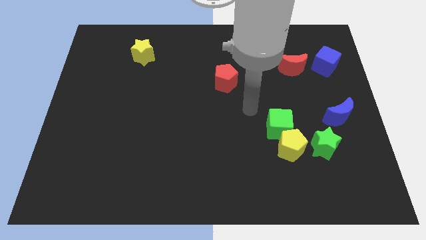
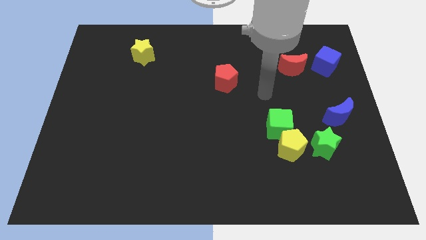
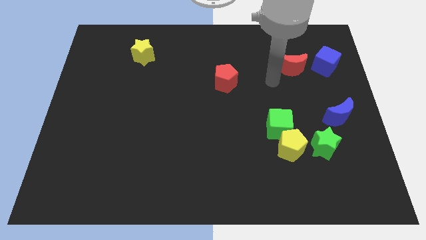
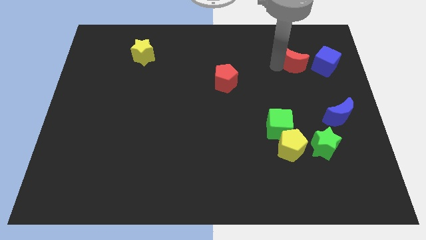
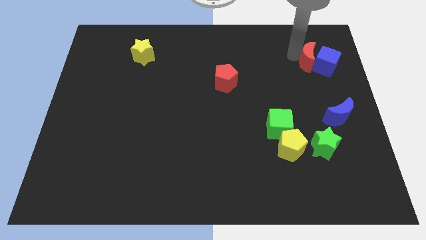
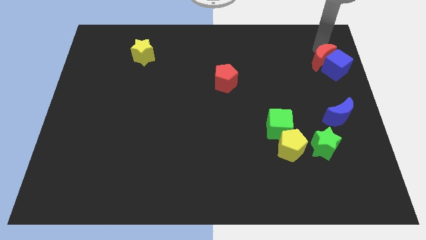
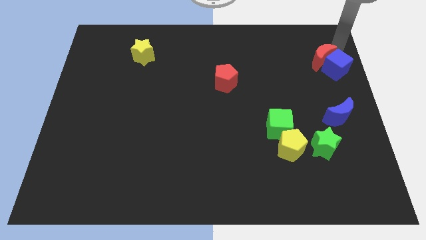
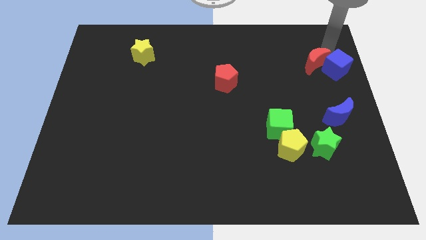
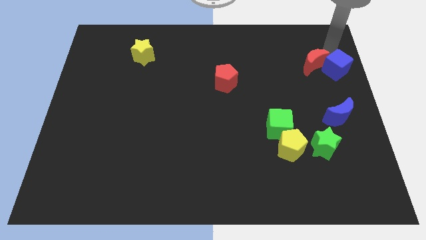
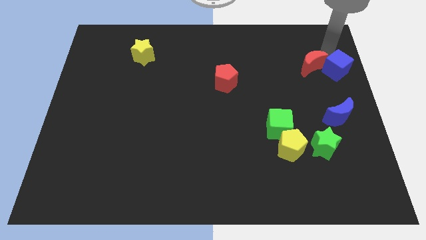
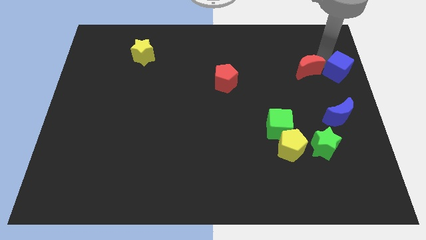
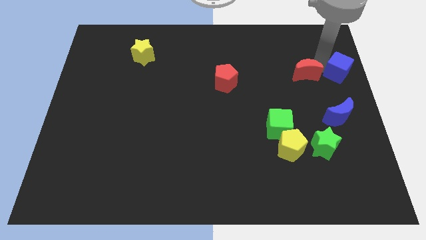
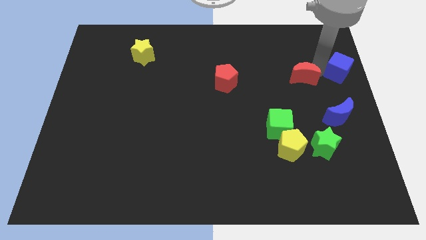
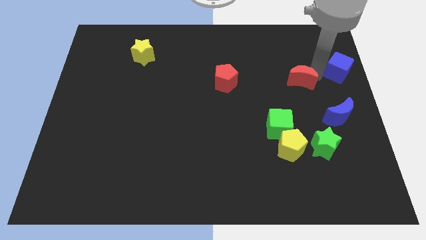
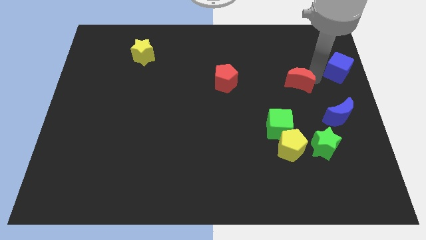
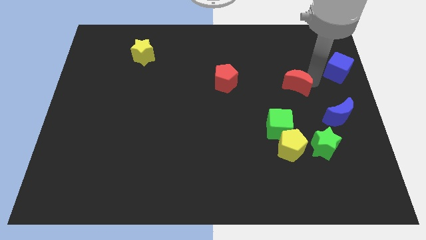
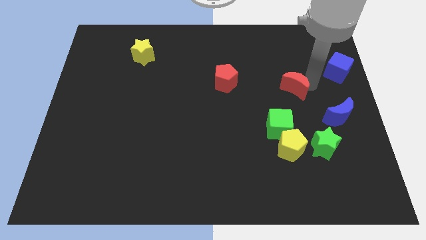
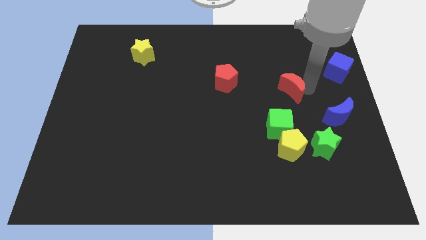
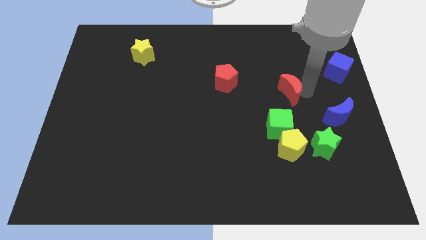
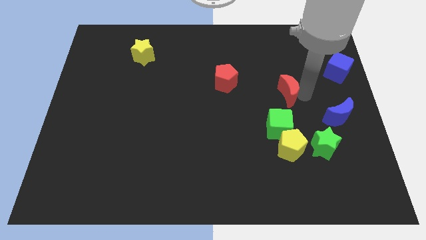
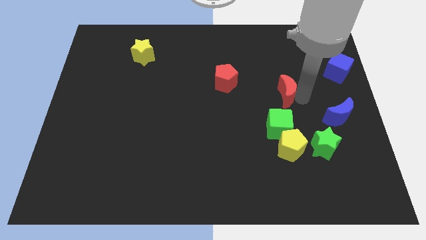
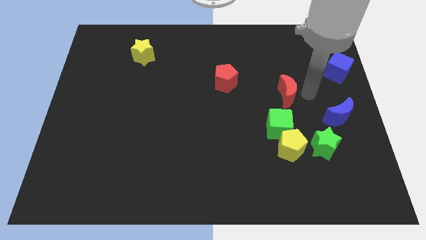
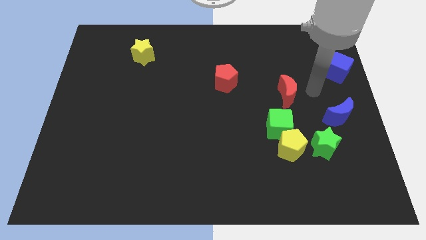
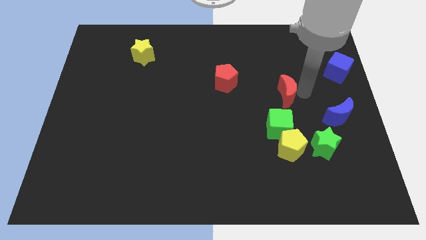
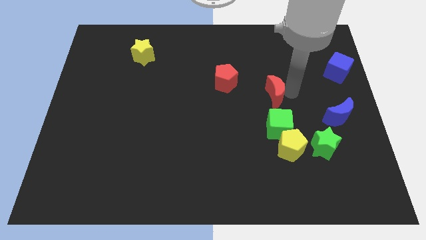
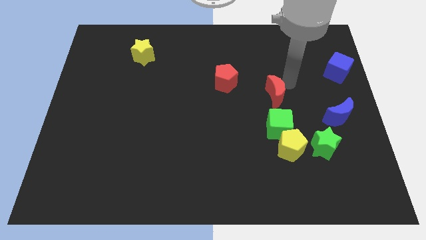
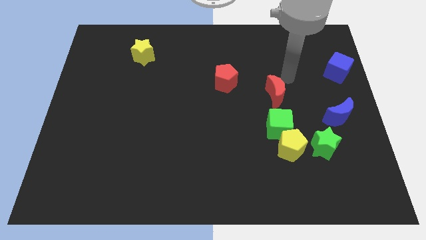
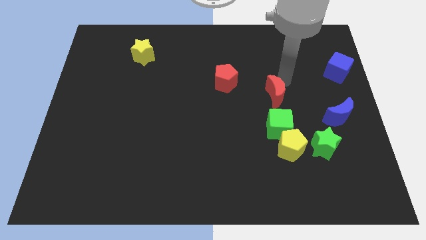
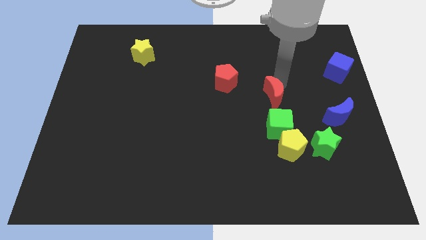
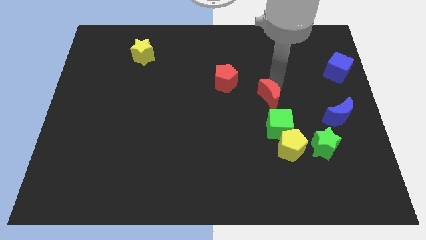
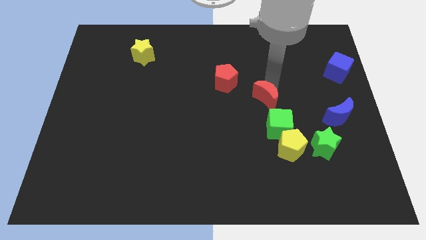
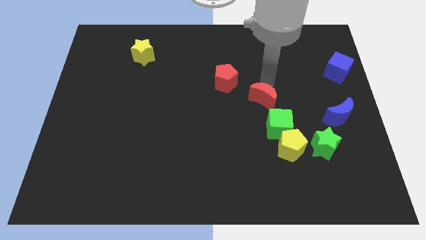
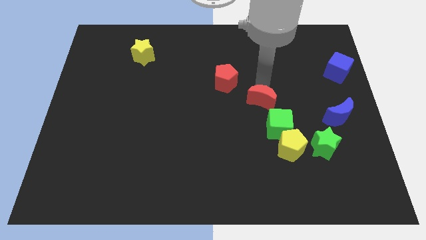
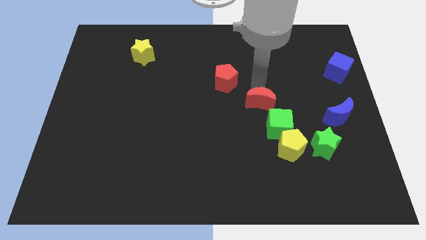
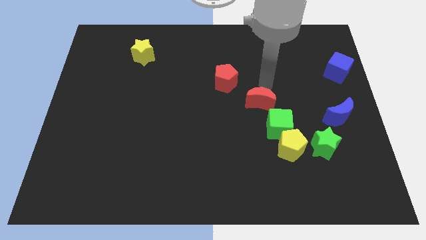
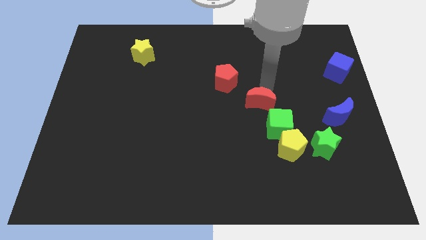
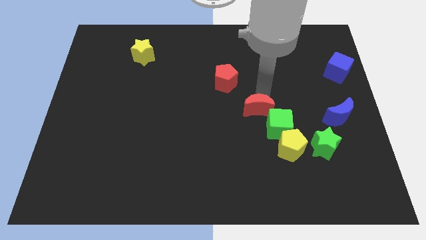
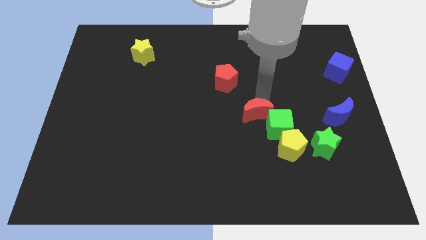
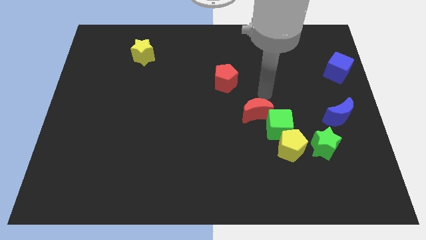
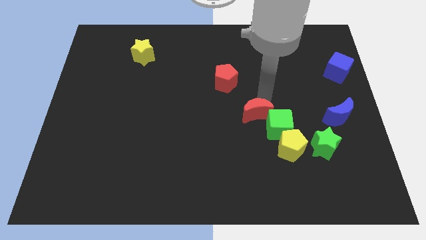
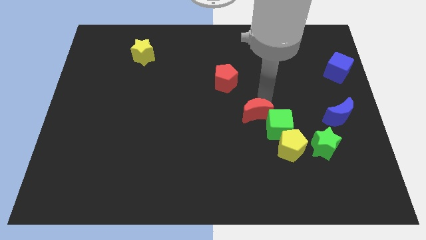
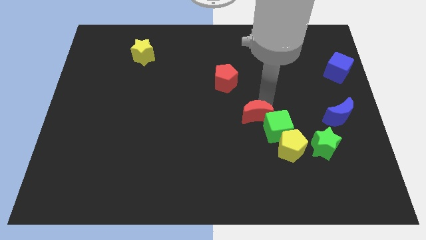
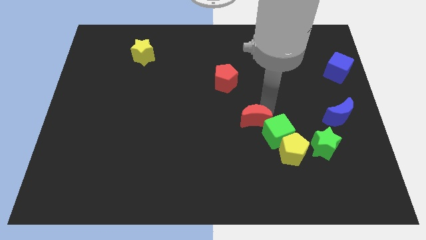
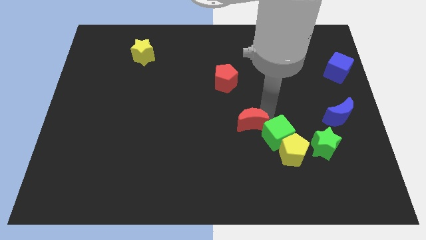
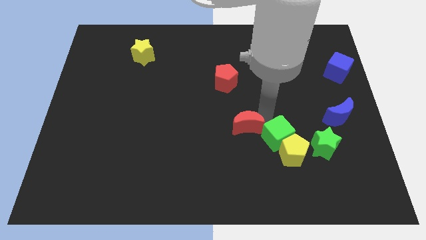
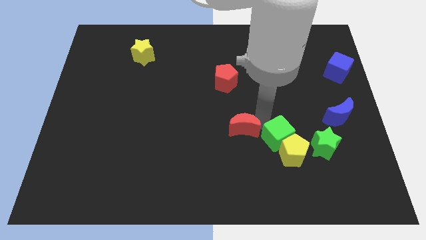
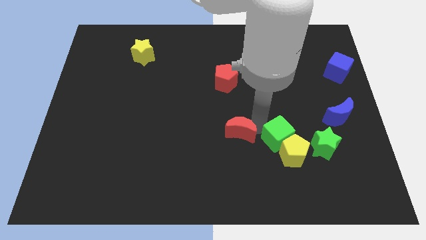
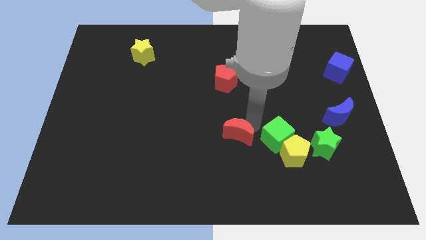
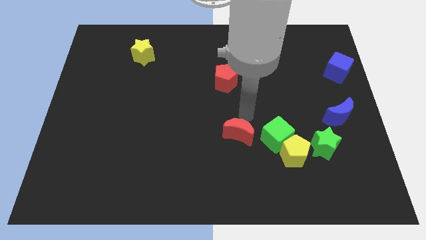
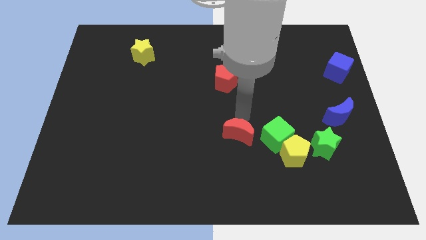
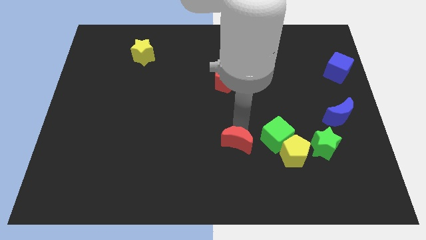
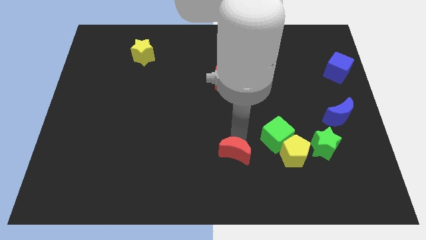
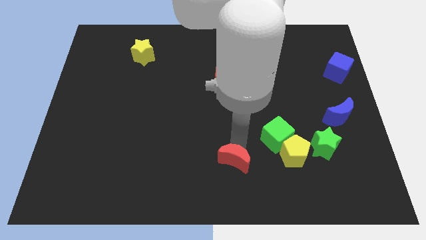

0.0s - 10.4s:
slide the red moon to the bottom side

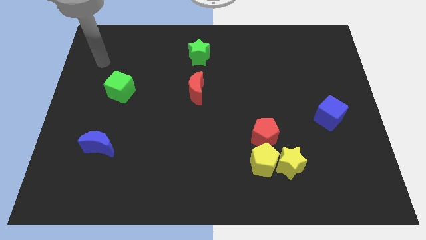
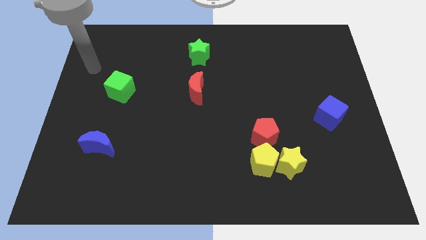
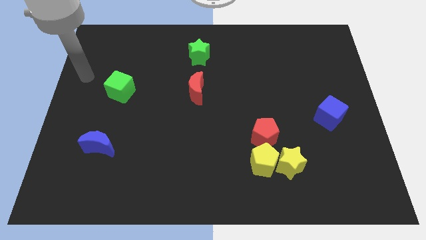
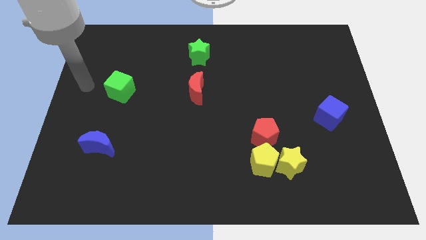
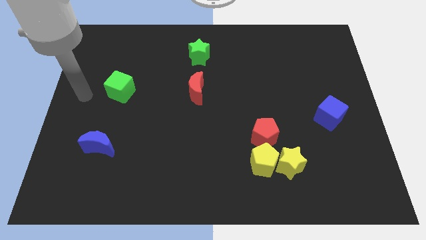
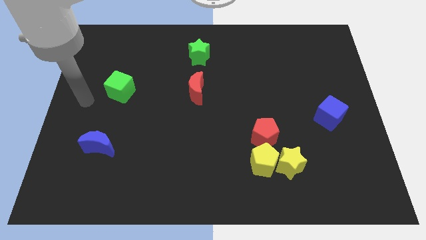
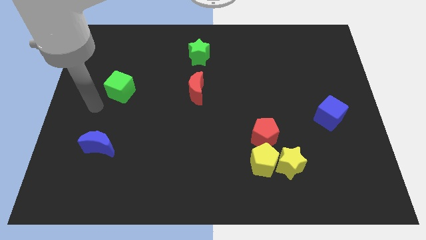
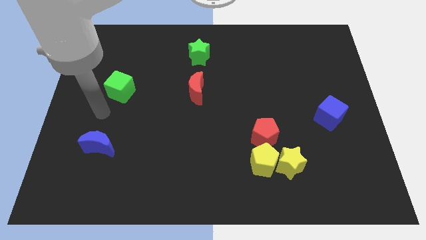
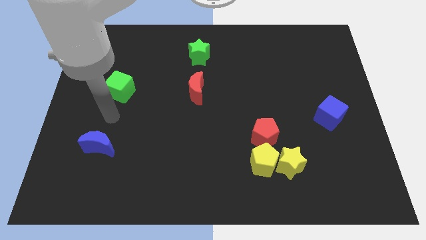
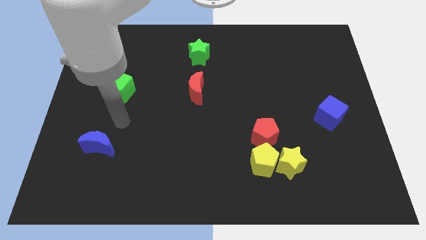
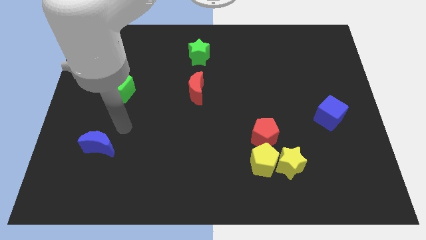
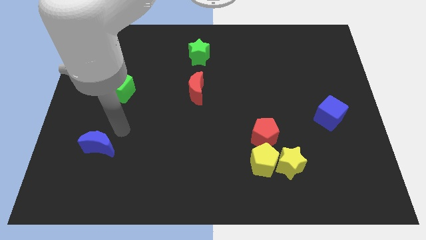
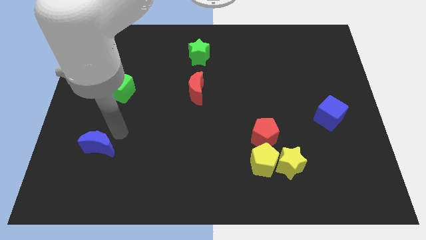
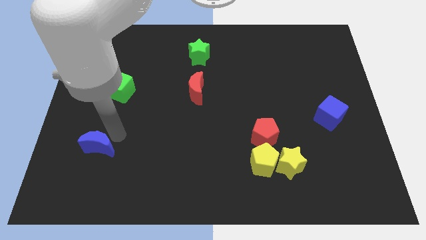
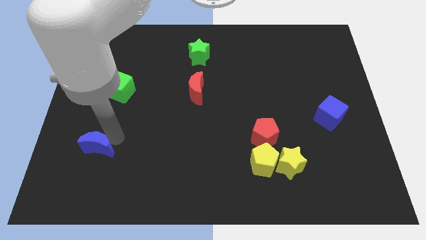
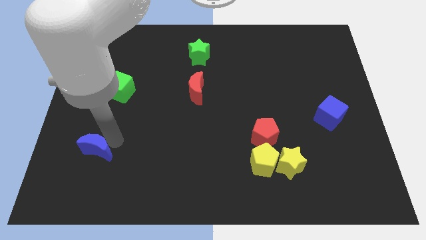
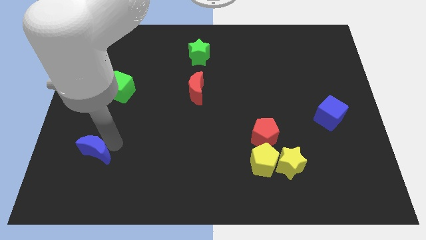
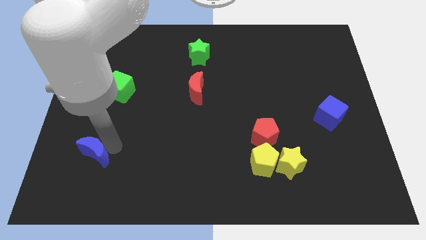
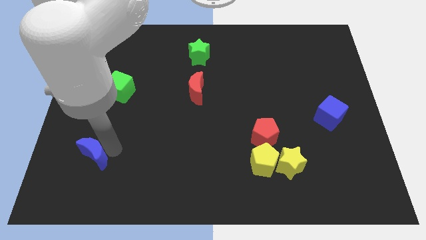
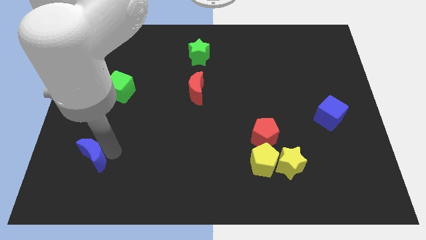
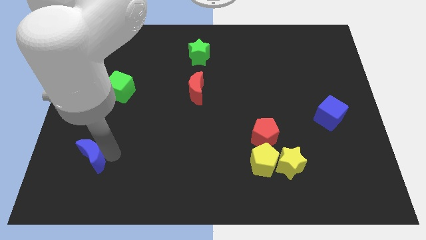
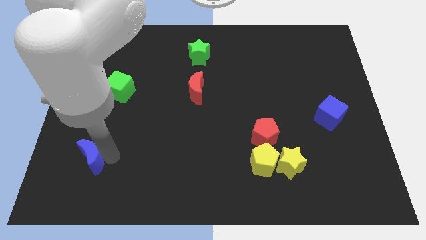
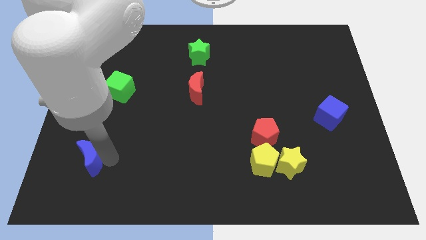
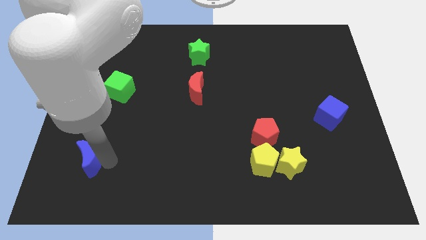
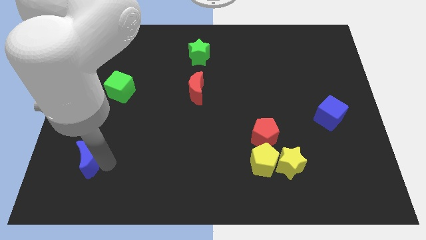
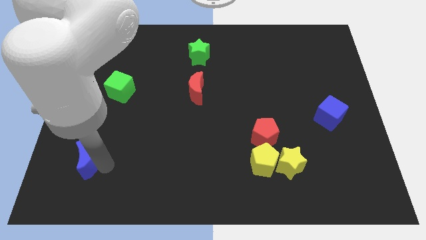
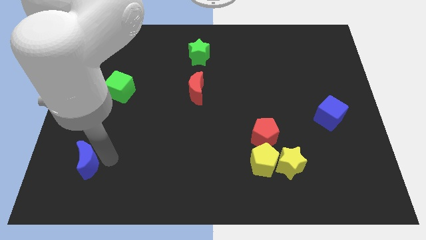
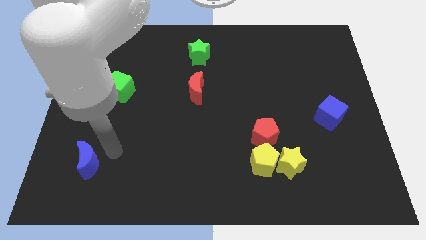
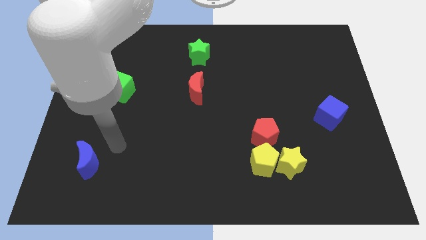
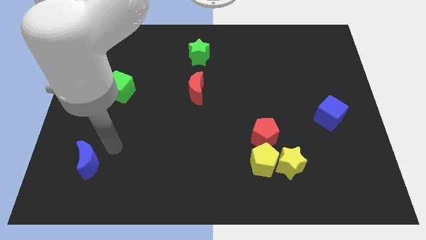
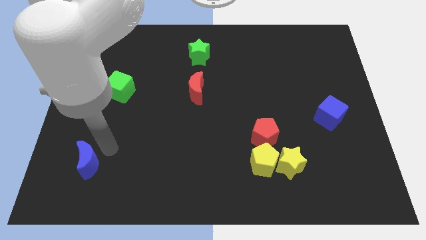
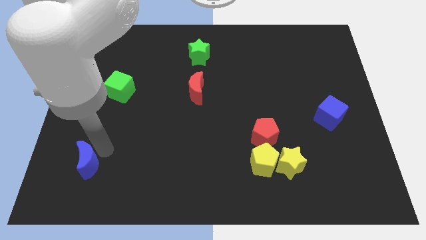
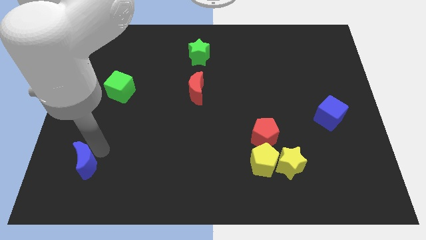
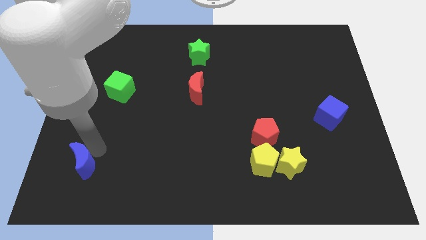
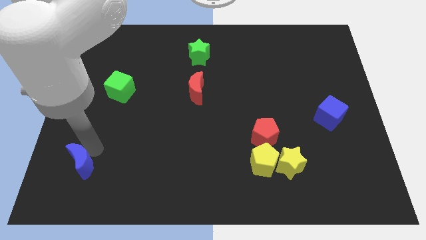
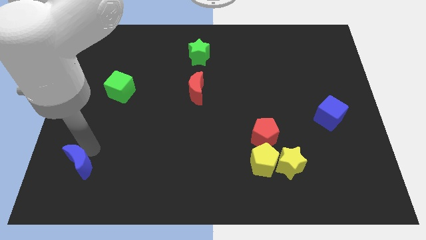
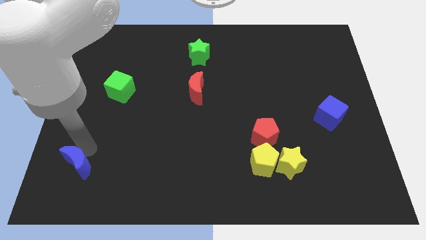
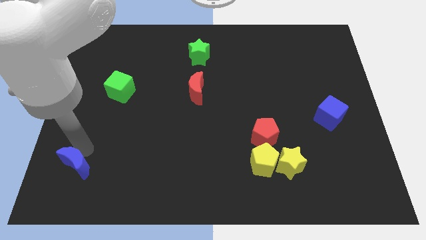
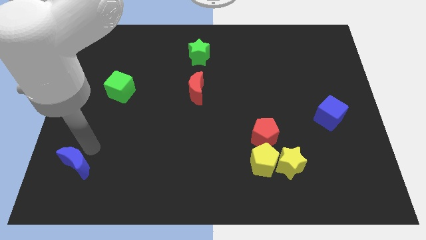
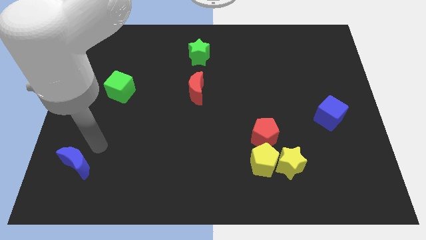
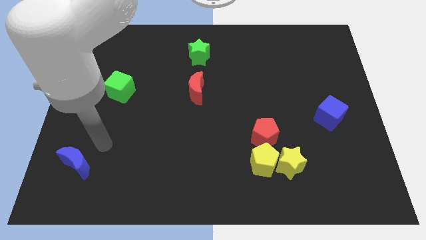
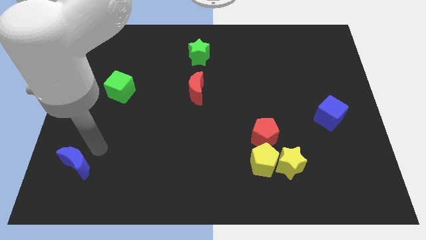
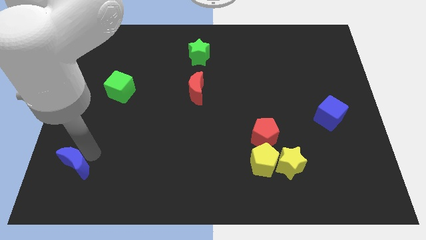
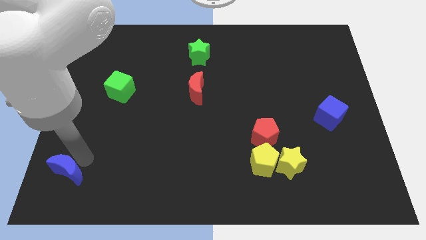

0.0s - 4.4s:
push the blue moon to the bottom left of the board
